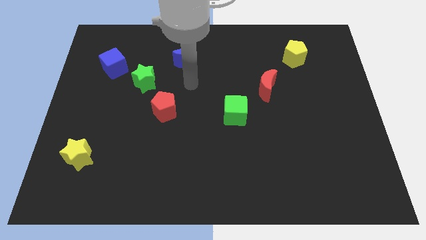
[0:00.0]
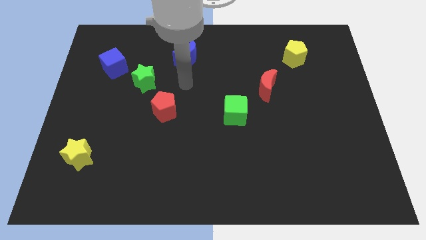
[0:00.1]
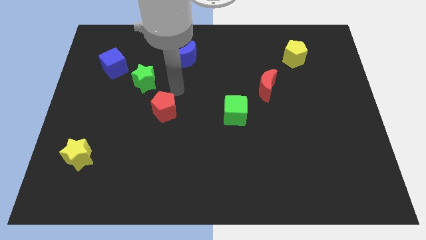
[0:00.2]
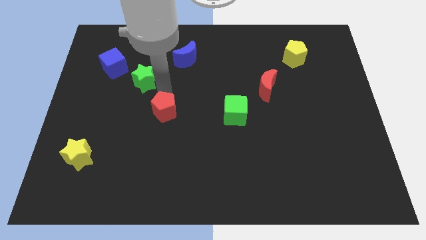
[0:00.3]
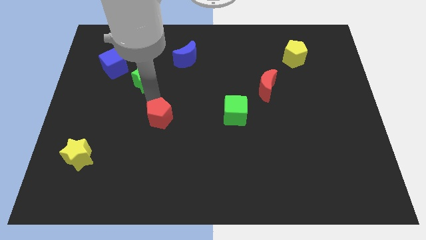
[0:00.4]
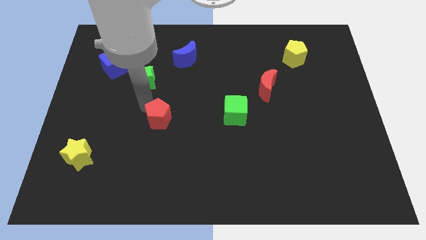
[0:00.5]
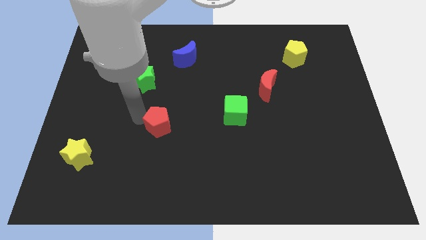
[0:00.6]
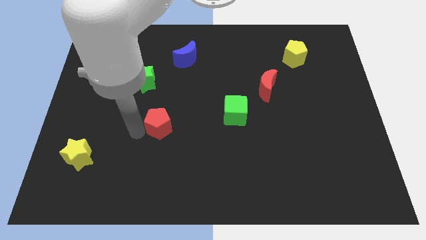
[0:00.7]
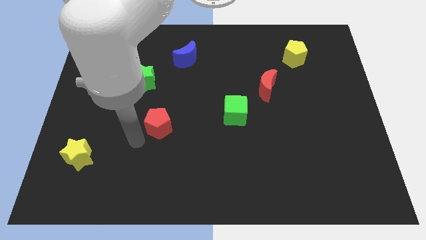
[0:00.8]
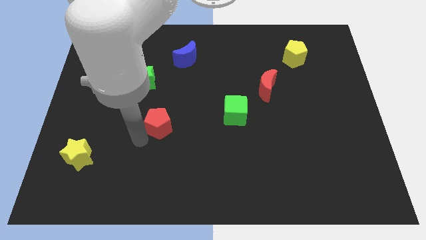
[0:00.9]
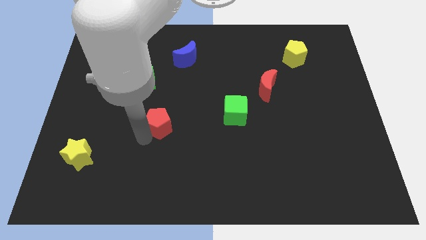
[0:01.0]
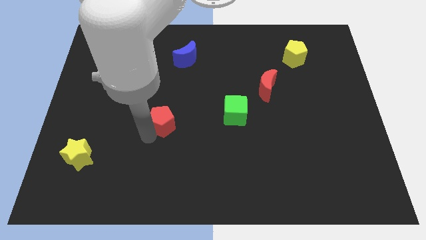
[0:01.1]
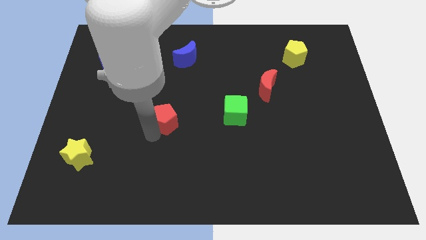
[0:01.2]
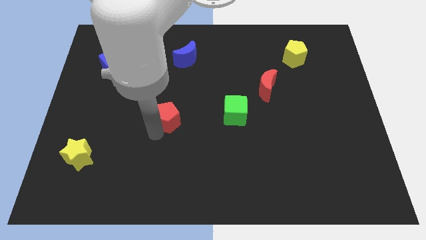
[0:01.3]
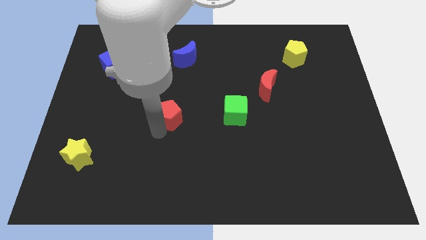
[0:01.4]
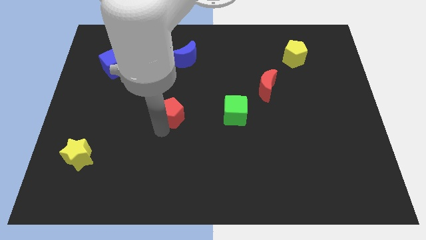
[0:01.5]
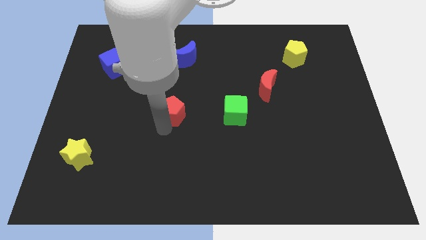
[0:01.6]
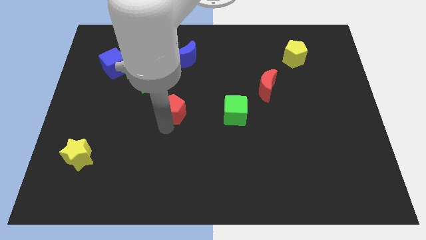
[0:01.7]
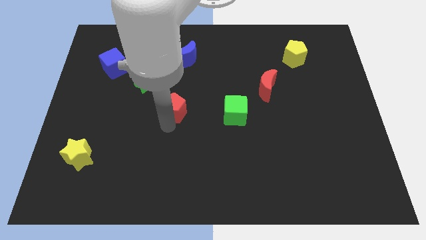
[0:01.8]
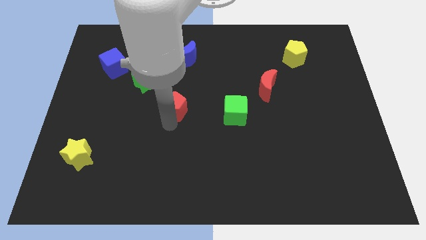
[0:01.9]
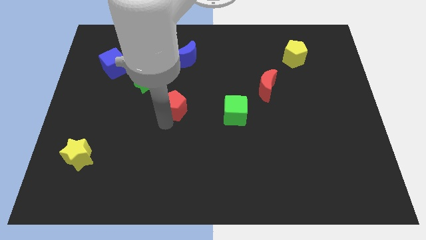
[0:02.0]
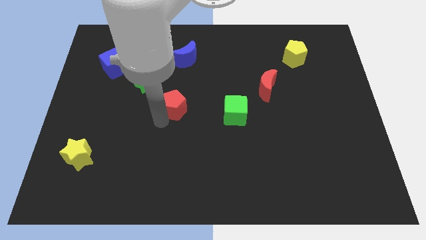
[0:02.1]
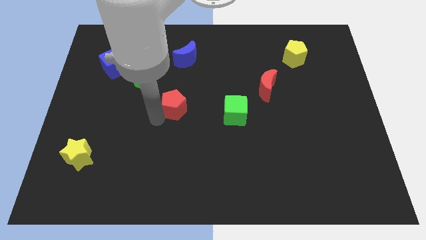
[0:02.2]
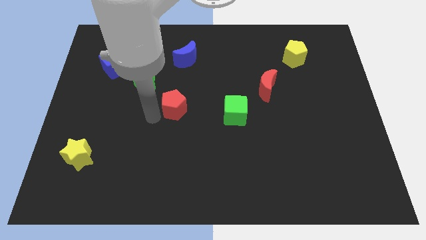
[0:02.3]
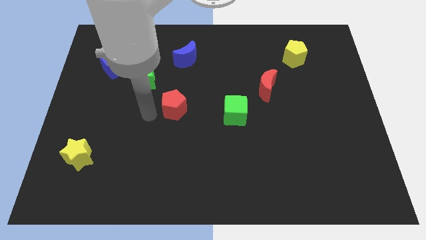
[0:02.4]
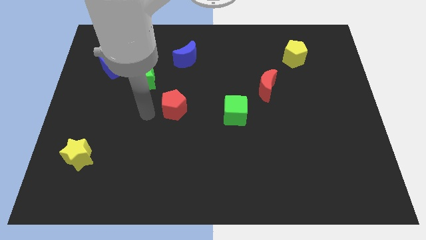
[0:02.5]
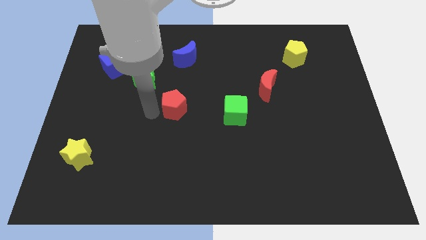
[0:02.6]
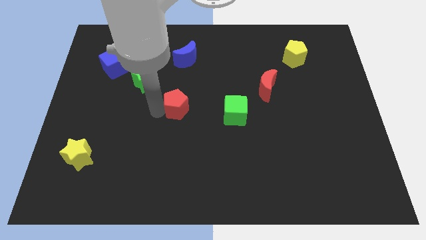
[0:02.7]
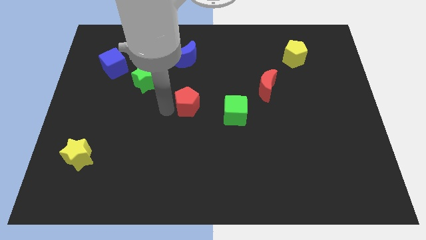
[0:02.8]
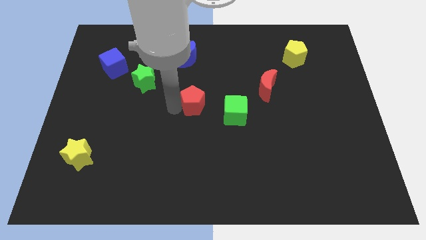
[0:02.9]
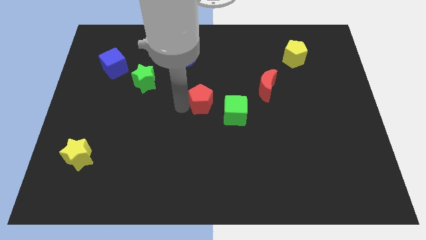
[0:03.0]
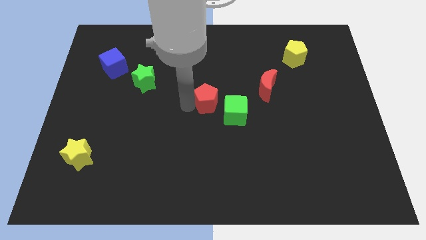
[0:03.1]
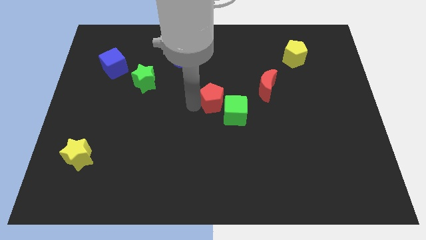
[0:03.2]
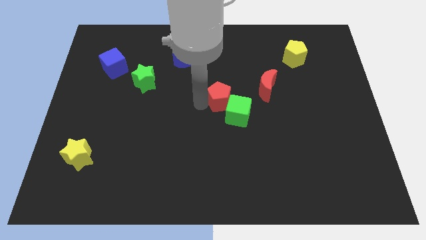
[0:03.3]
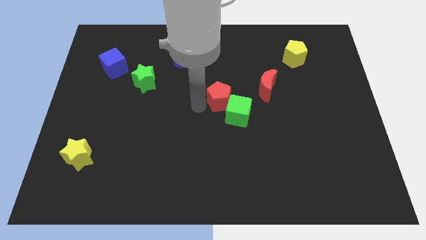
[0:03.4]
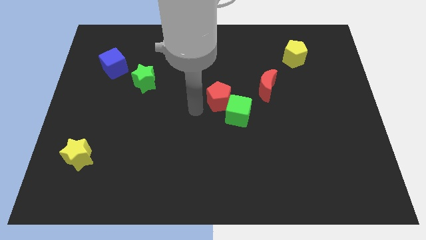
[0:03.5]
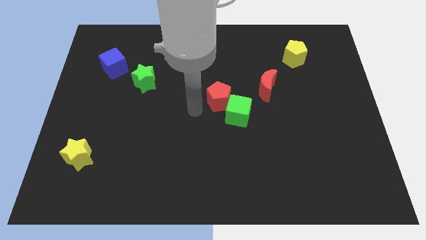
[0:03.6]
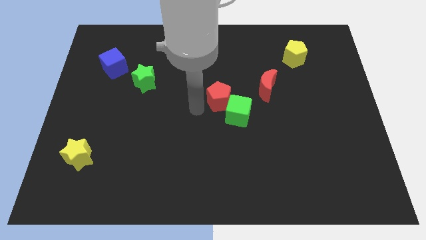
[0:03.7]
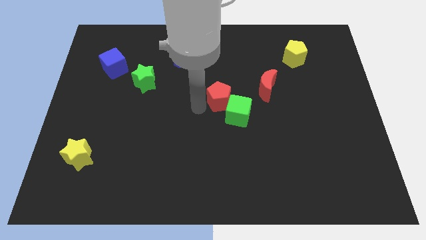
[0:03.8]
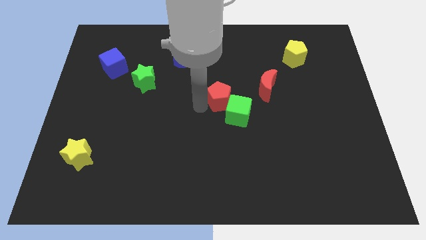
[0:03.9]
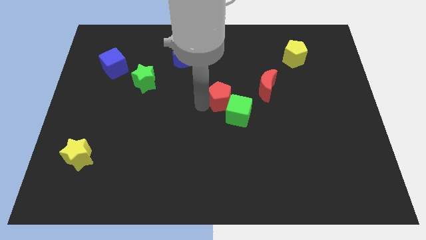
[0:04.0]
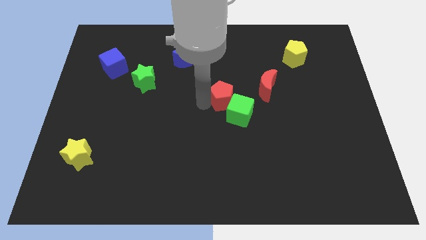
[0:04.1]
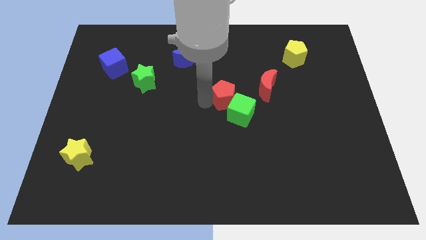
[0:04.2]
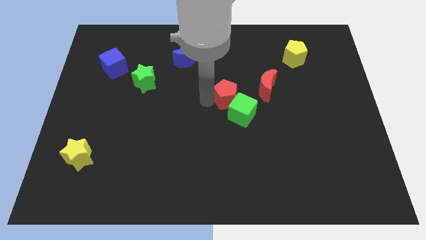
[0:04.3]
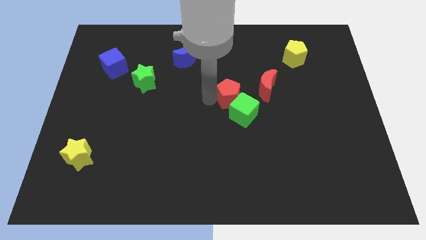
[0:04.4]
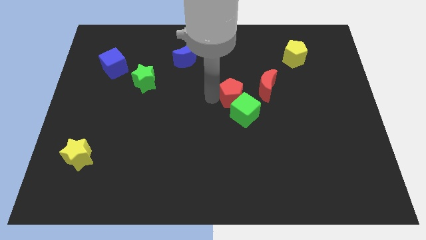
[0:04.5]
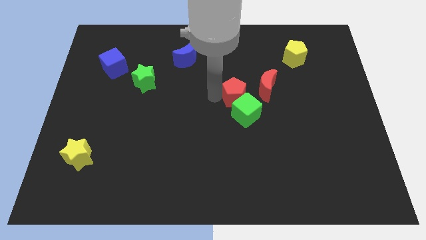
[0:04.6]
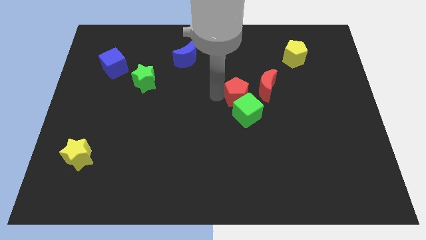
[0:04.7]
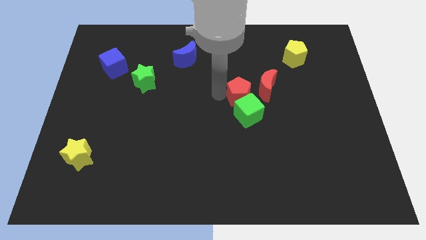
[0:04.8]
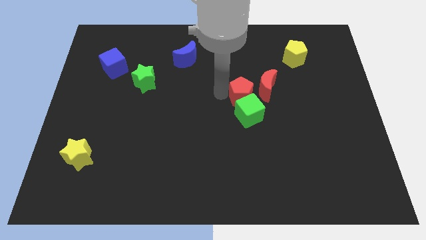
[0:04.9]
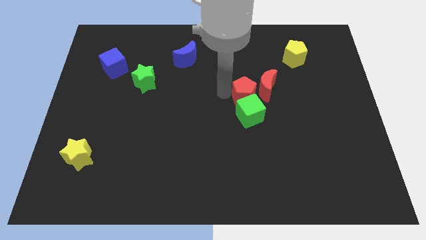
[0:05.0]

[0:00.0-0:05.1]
slide the red pentagon to the red moon

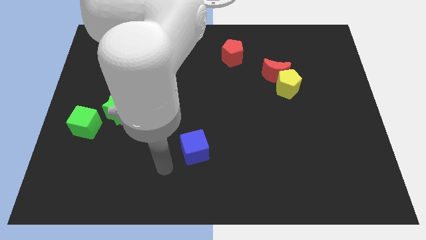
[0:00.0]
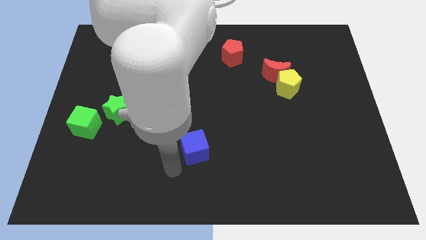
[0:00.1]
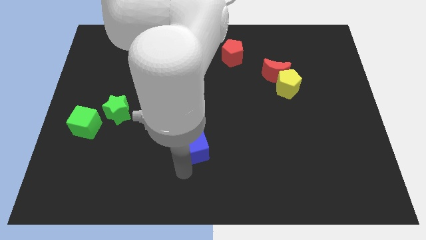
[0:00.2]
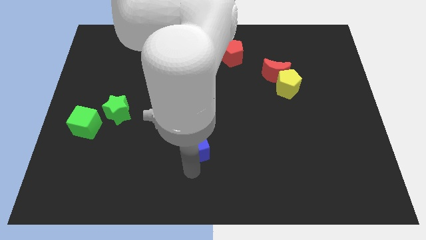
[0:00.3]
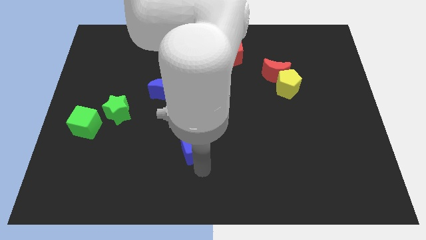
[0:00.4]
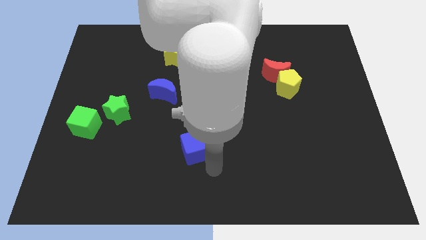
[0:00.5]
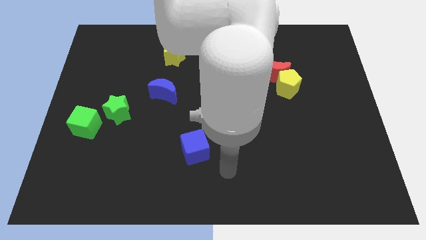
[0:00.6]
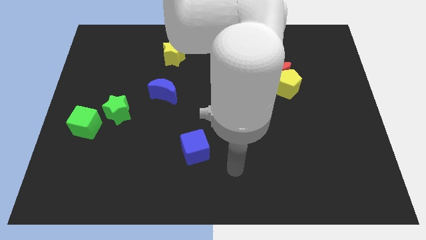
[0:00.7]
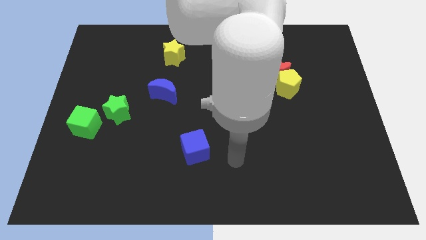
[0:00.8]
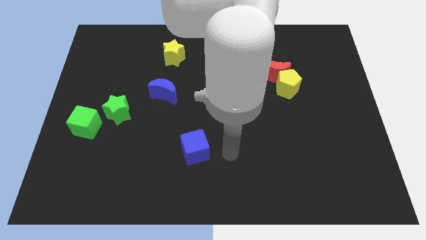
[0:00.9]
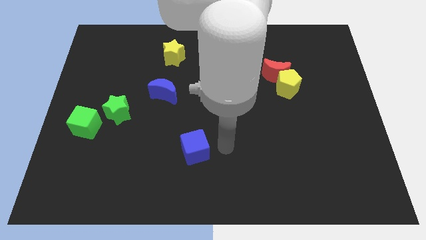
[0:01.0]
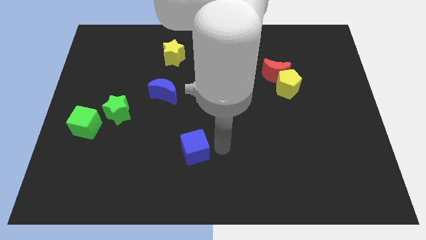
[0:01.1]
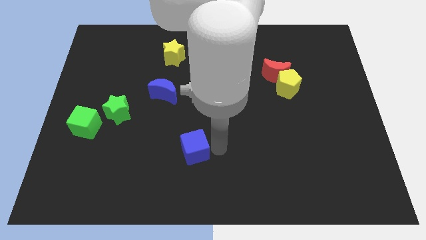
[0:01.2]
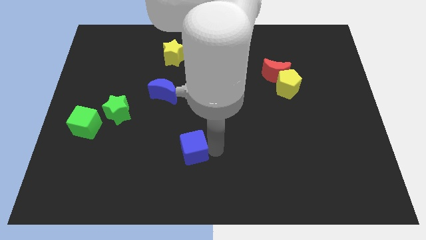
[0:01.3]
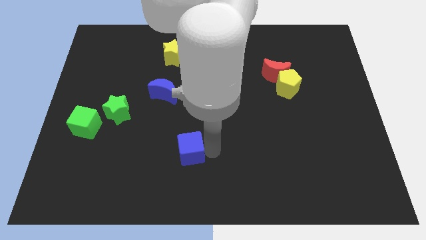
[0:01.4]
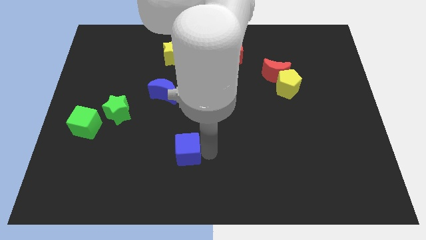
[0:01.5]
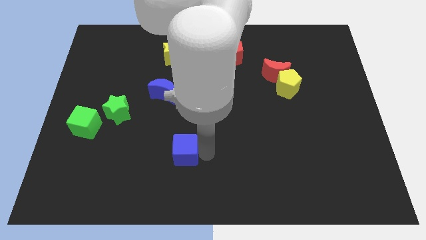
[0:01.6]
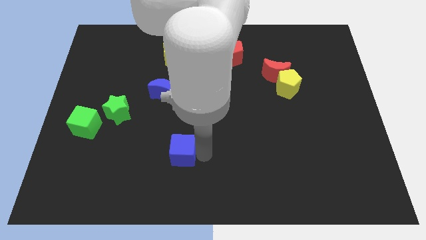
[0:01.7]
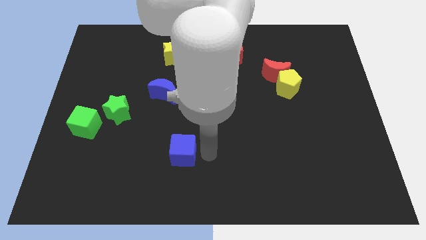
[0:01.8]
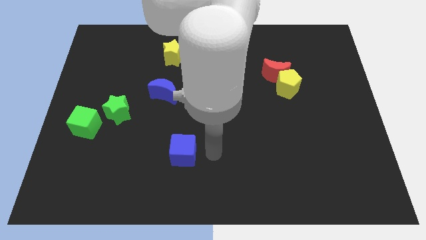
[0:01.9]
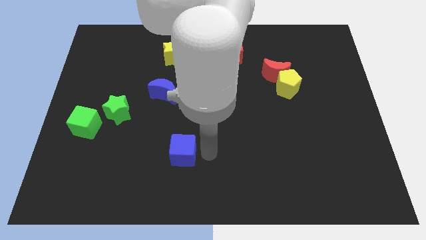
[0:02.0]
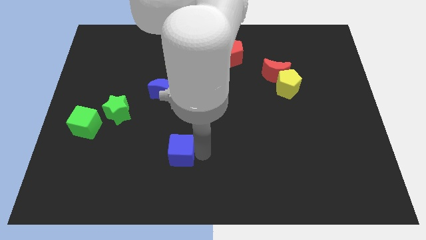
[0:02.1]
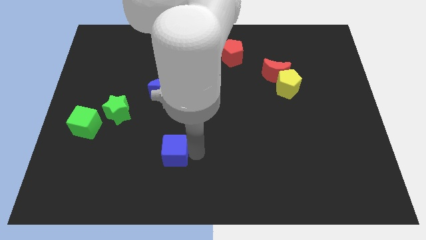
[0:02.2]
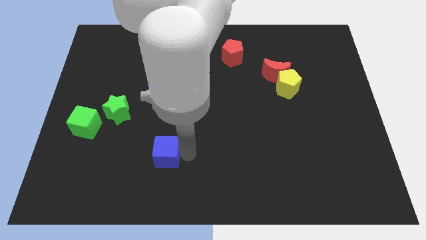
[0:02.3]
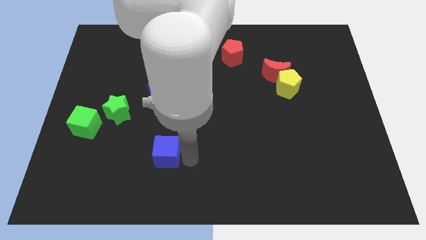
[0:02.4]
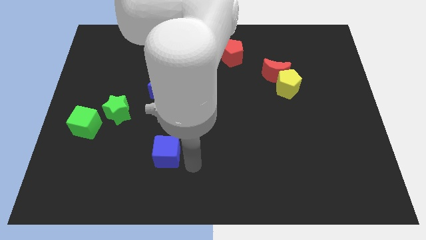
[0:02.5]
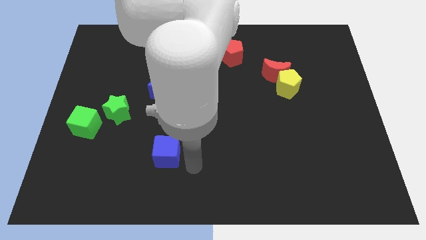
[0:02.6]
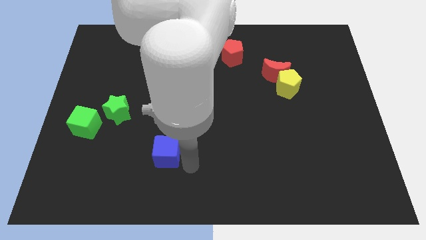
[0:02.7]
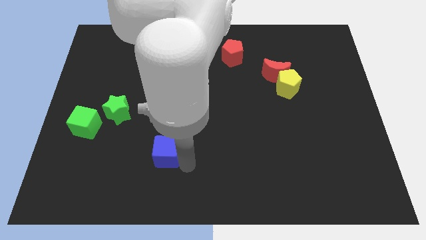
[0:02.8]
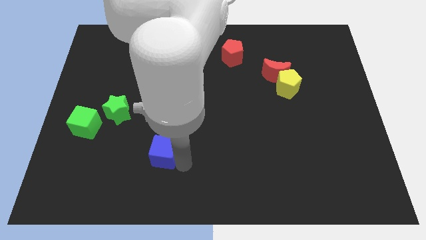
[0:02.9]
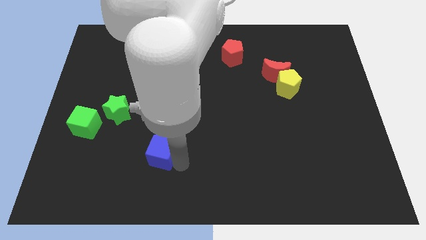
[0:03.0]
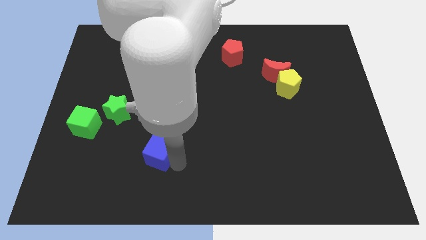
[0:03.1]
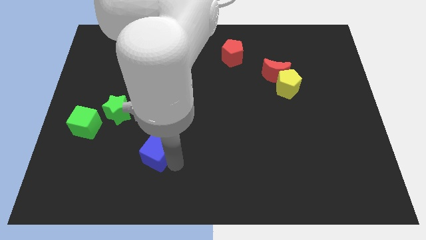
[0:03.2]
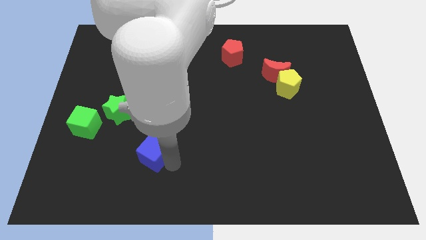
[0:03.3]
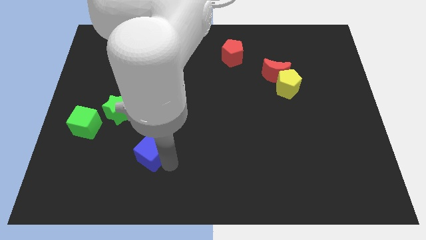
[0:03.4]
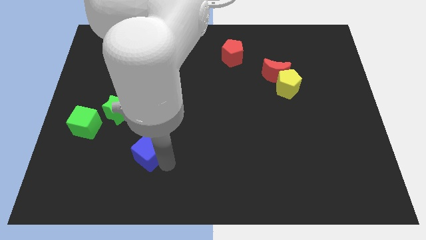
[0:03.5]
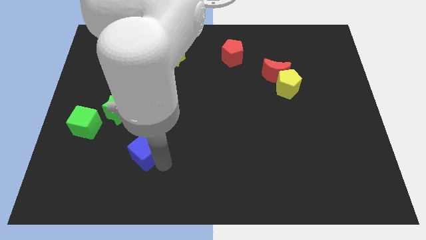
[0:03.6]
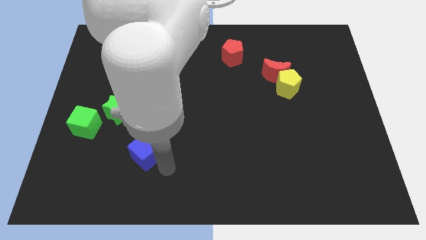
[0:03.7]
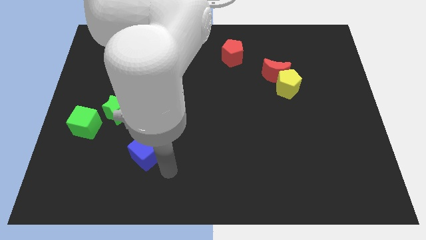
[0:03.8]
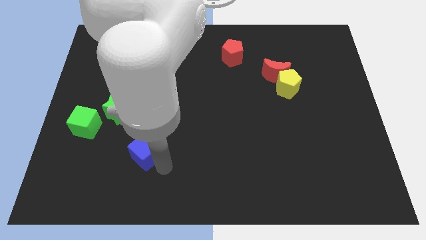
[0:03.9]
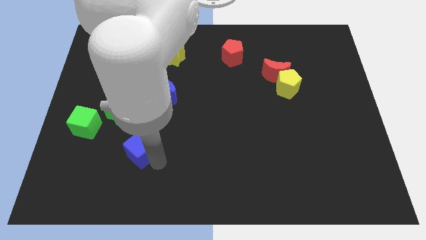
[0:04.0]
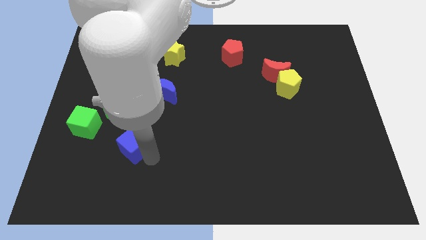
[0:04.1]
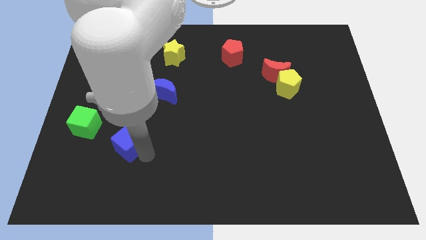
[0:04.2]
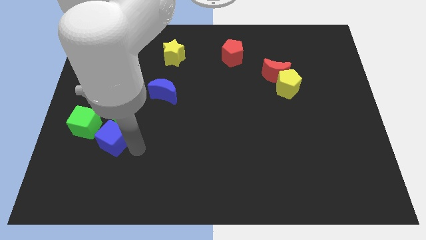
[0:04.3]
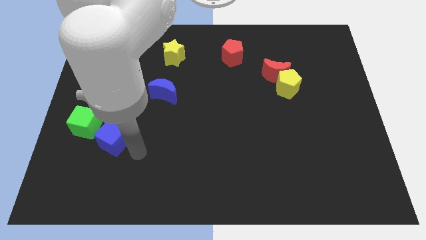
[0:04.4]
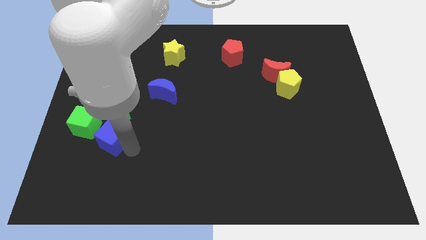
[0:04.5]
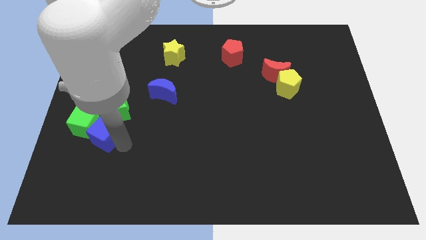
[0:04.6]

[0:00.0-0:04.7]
push the blue cube next to the green cube
